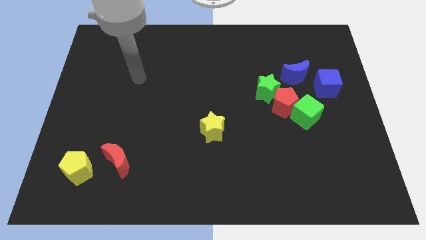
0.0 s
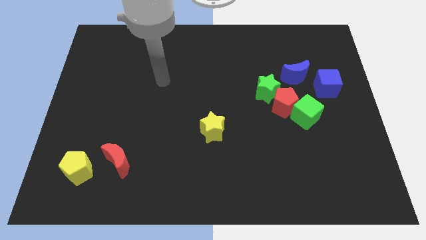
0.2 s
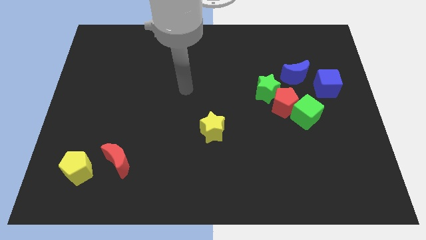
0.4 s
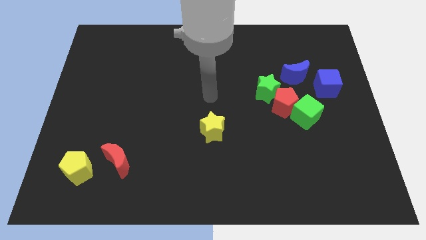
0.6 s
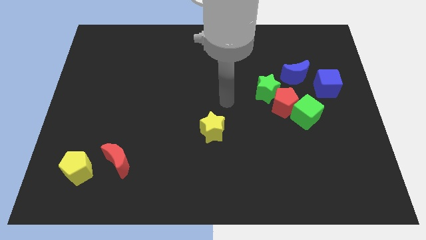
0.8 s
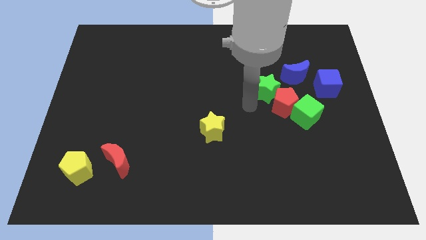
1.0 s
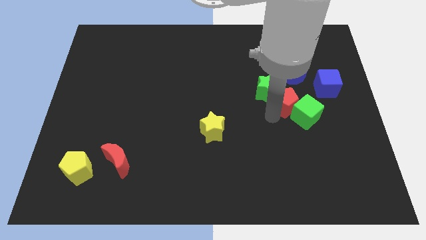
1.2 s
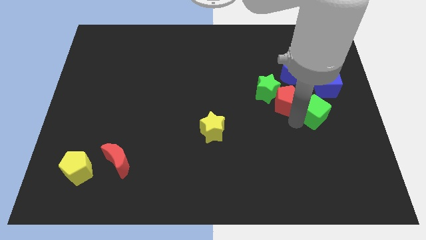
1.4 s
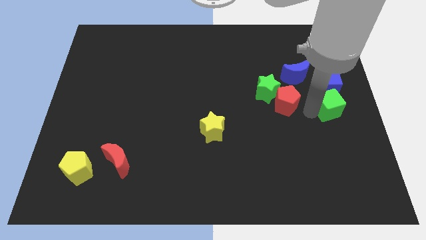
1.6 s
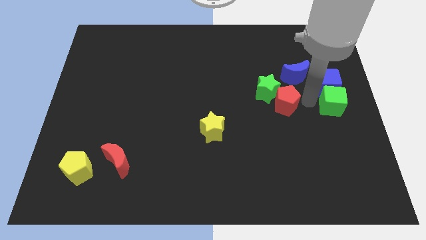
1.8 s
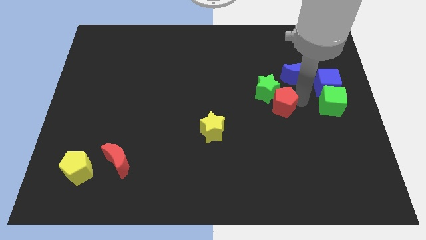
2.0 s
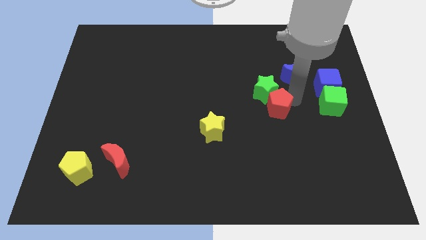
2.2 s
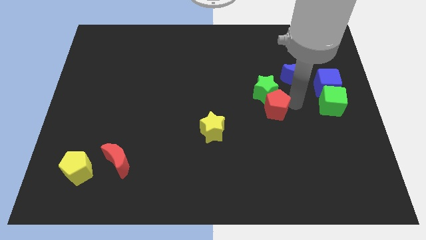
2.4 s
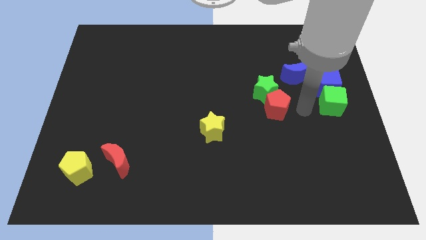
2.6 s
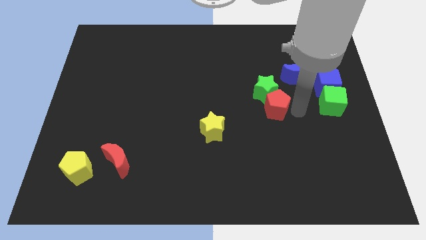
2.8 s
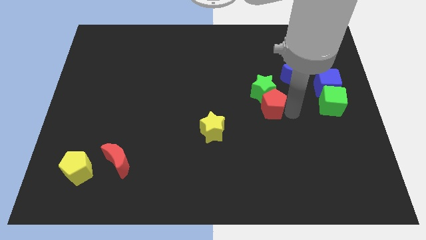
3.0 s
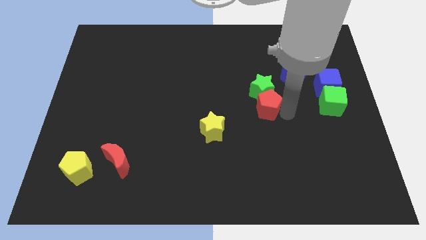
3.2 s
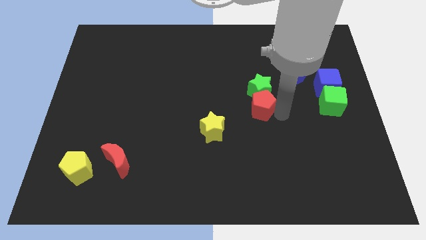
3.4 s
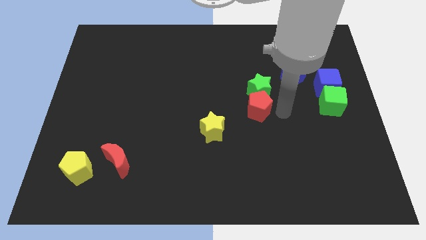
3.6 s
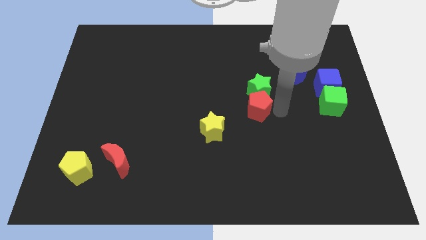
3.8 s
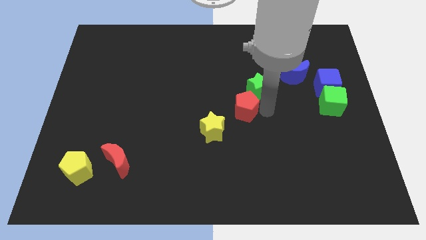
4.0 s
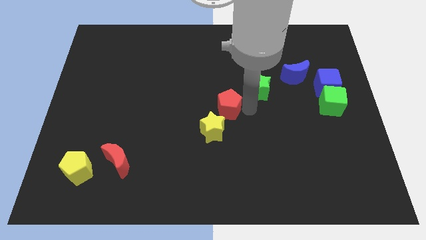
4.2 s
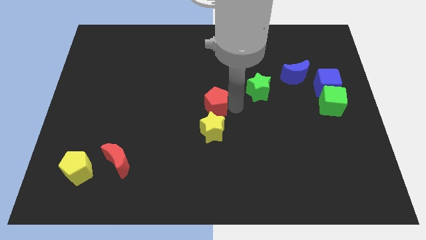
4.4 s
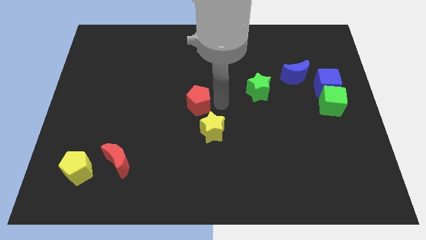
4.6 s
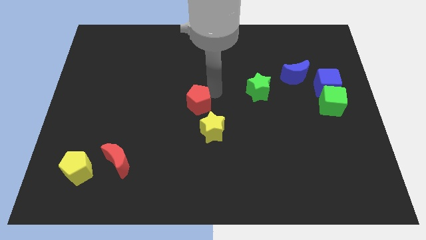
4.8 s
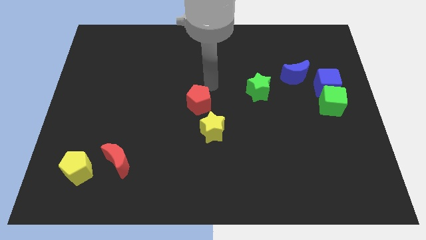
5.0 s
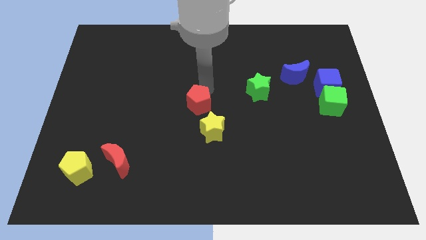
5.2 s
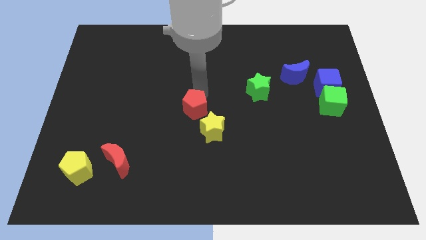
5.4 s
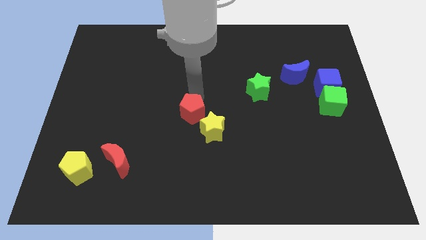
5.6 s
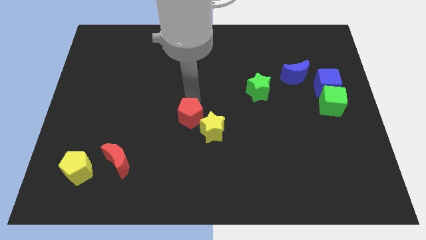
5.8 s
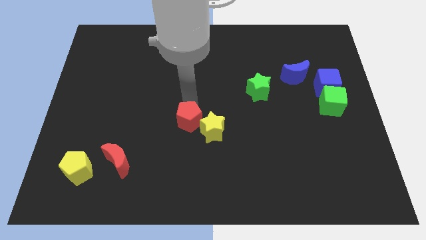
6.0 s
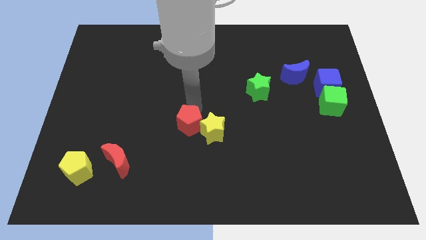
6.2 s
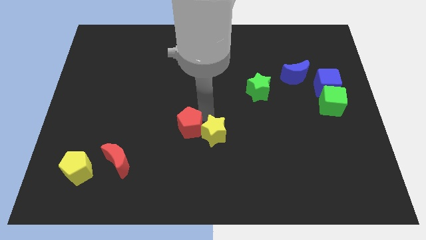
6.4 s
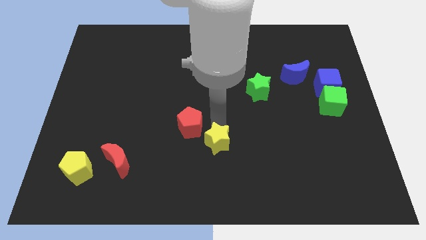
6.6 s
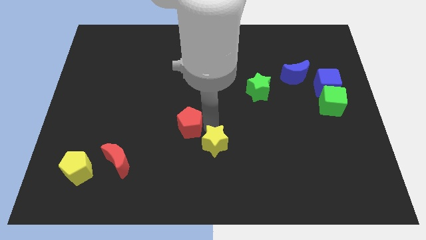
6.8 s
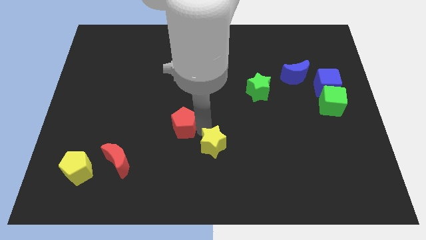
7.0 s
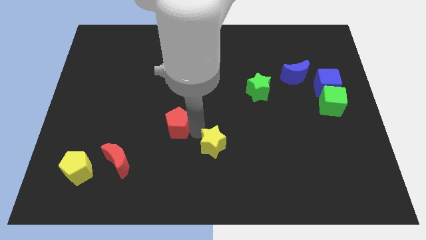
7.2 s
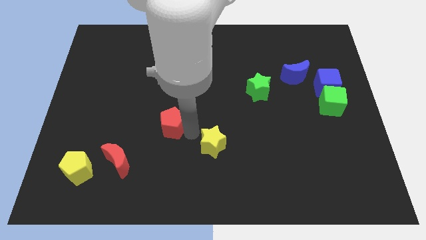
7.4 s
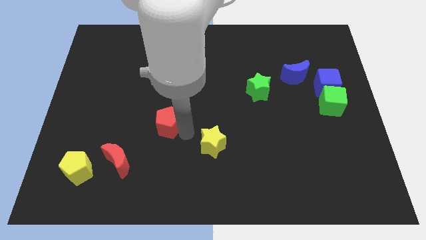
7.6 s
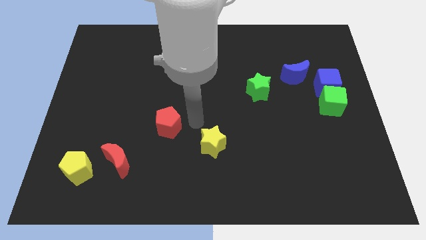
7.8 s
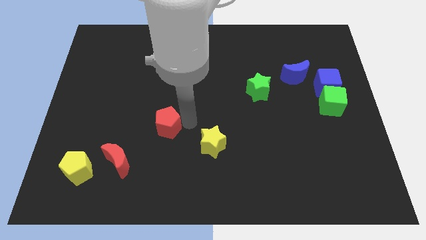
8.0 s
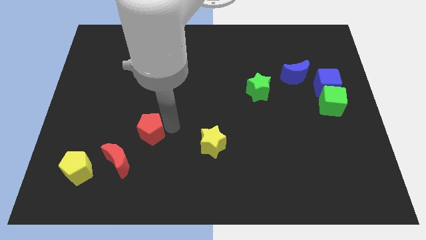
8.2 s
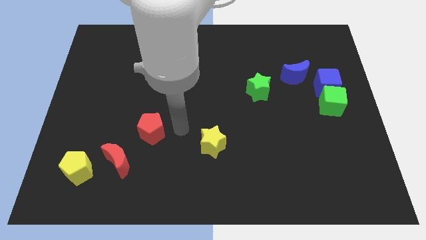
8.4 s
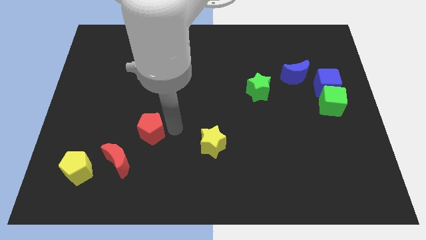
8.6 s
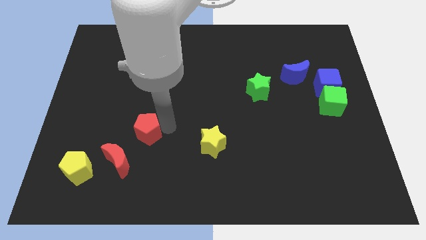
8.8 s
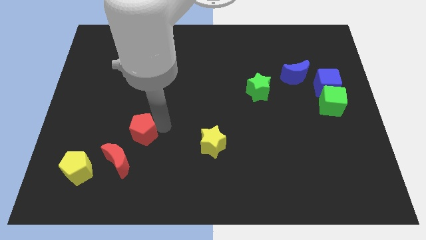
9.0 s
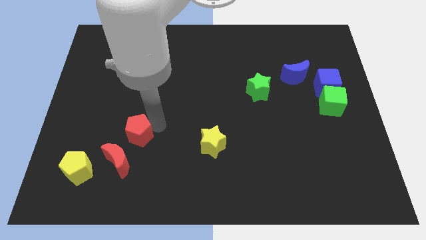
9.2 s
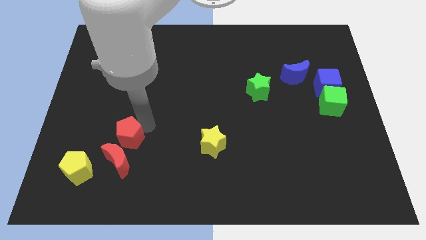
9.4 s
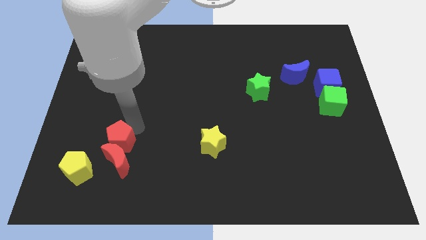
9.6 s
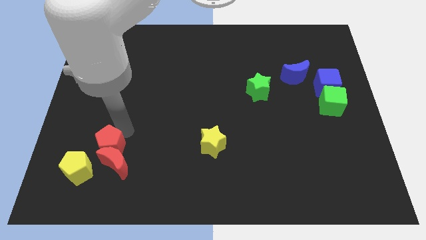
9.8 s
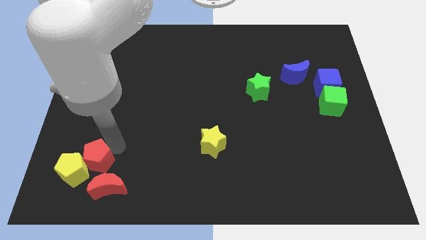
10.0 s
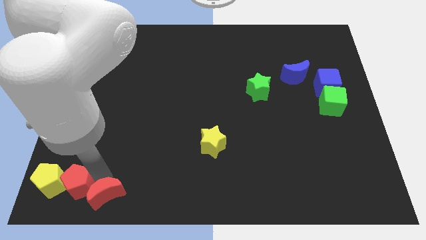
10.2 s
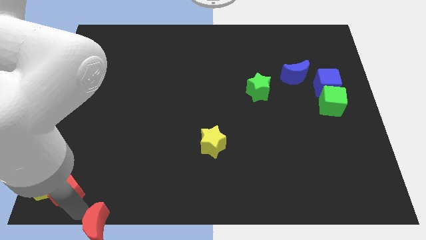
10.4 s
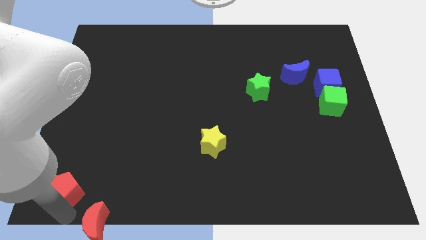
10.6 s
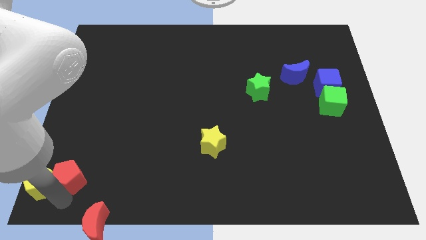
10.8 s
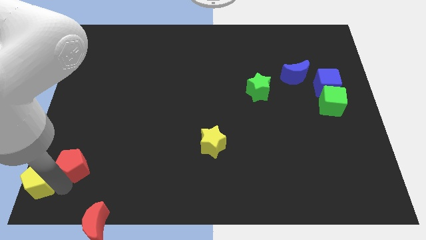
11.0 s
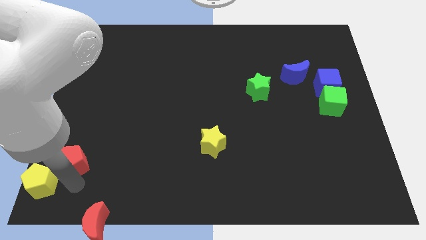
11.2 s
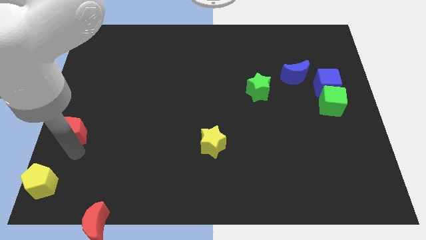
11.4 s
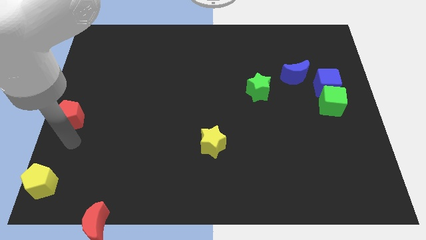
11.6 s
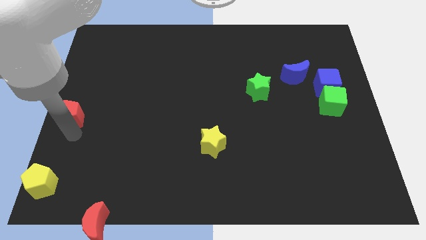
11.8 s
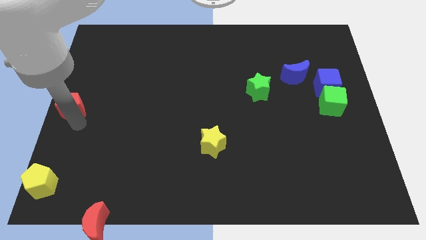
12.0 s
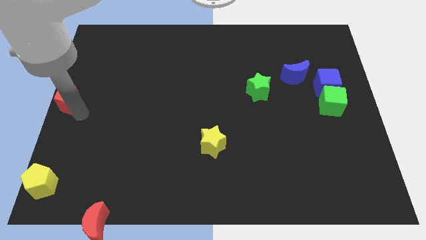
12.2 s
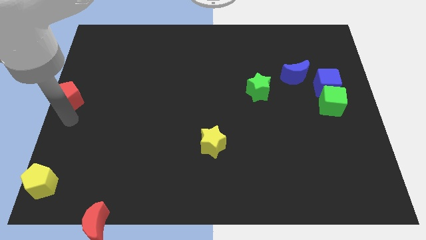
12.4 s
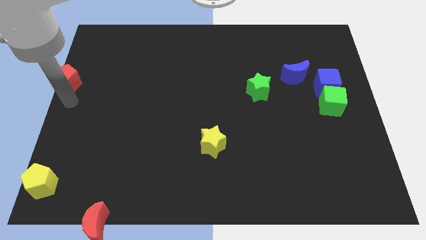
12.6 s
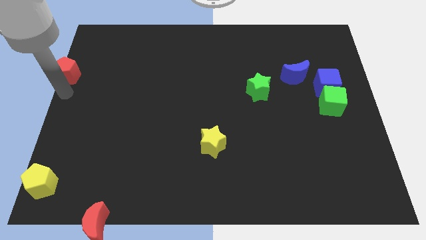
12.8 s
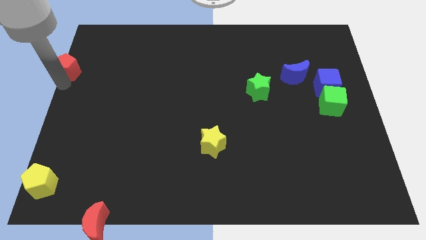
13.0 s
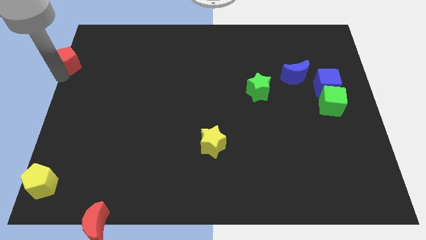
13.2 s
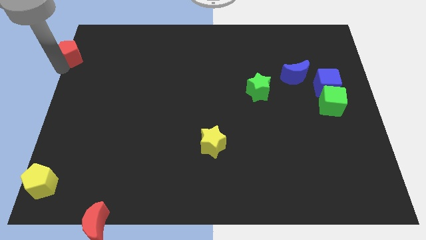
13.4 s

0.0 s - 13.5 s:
slide the red pentagon to the top left corner
